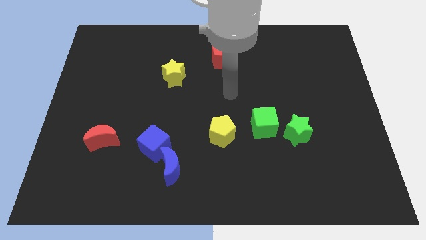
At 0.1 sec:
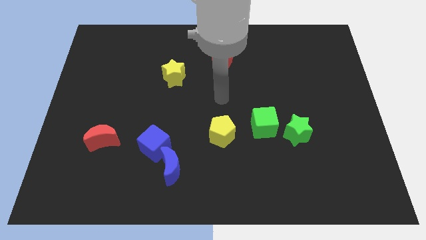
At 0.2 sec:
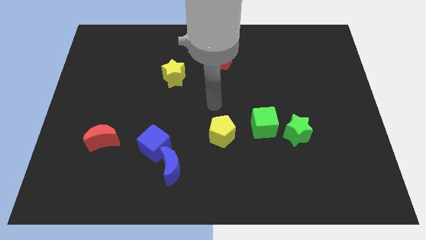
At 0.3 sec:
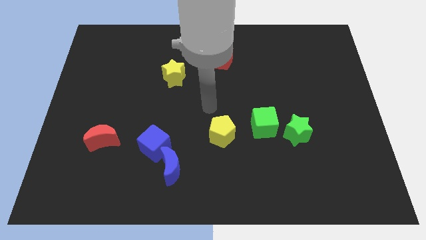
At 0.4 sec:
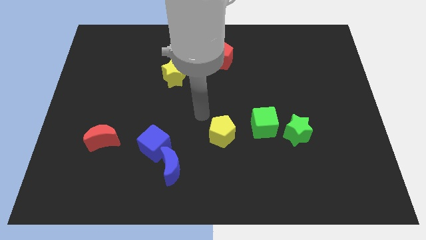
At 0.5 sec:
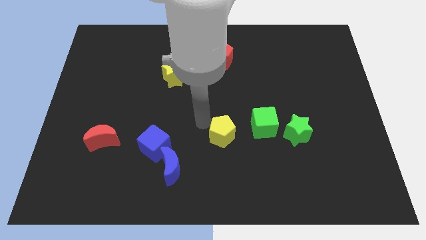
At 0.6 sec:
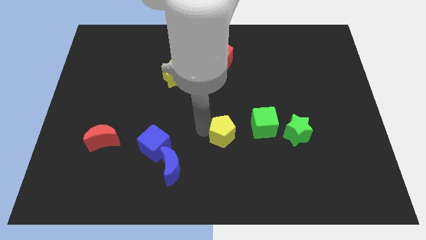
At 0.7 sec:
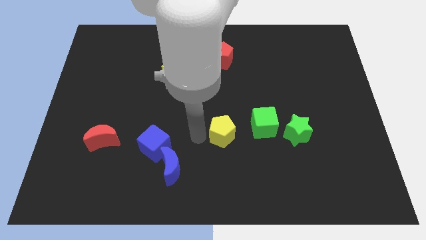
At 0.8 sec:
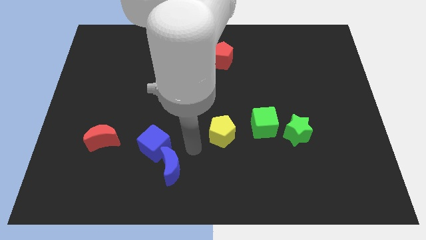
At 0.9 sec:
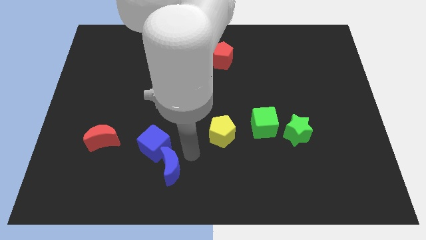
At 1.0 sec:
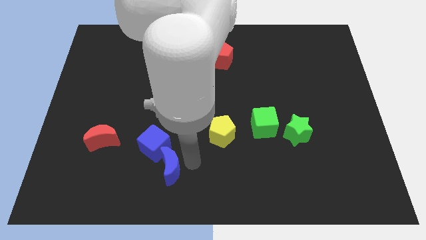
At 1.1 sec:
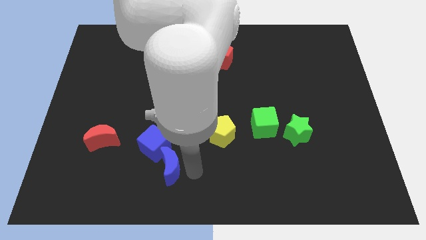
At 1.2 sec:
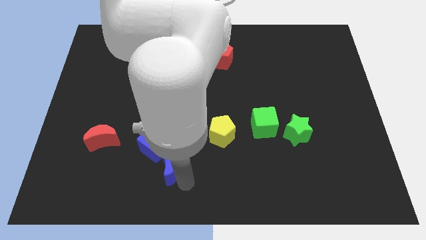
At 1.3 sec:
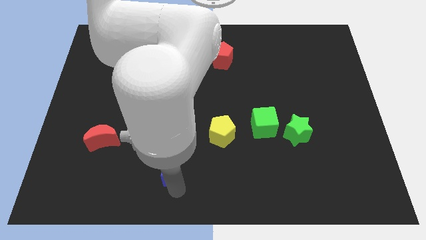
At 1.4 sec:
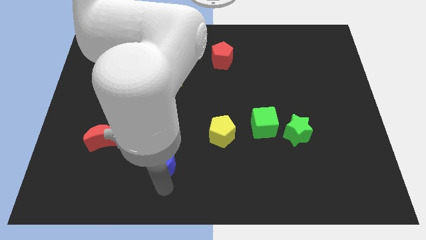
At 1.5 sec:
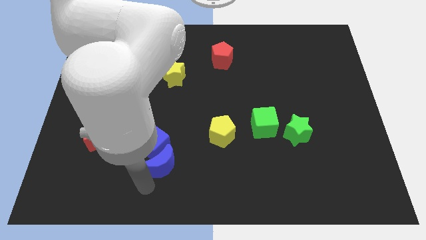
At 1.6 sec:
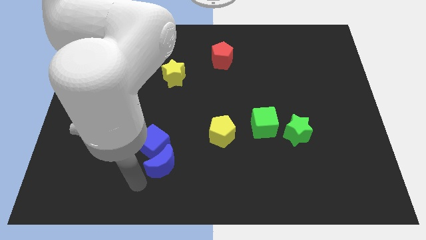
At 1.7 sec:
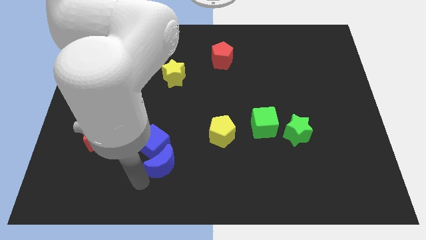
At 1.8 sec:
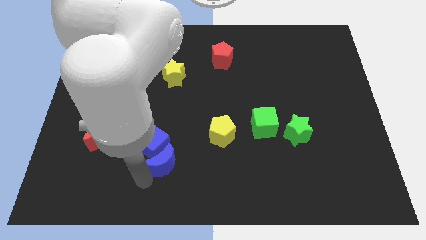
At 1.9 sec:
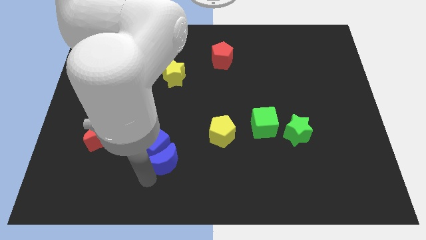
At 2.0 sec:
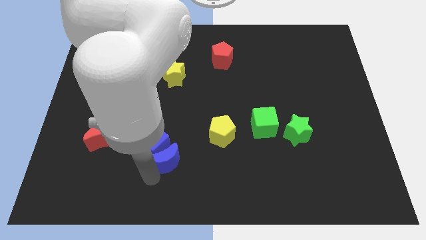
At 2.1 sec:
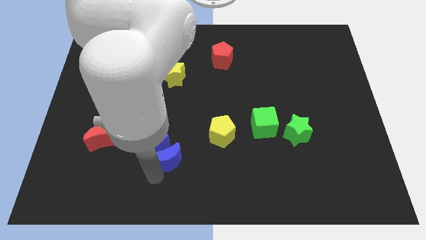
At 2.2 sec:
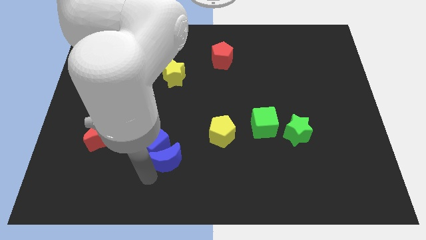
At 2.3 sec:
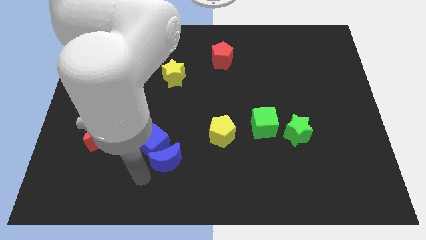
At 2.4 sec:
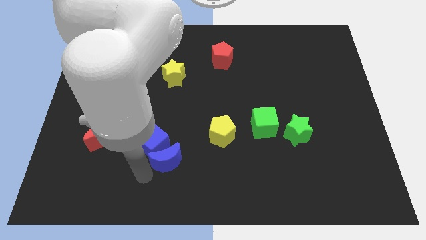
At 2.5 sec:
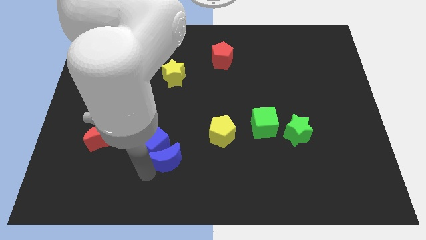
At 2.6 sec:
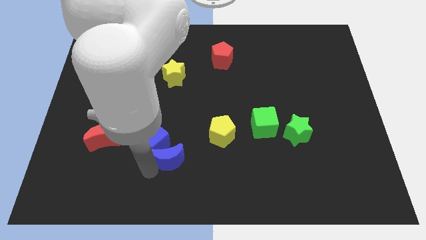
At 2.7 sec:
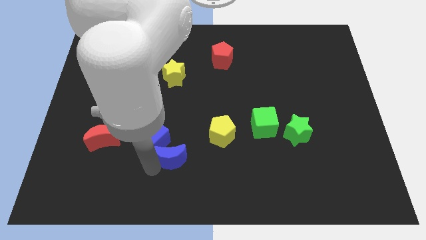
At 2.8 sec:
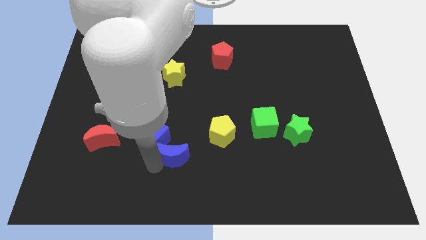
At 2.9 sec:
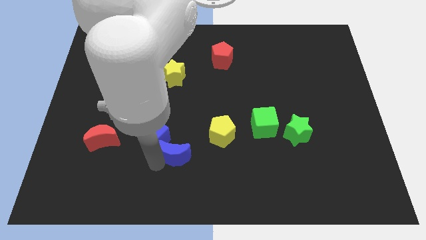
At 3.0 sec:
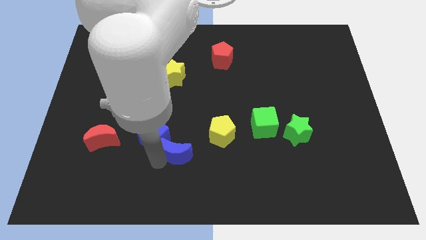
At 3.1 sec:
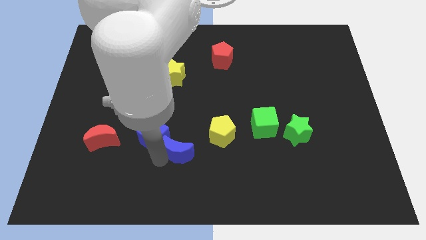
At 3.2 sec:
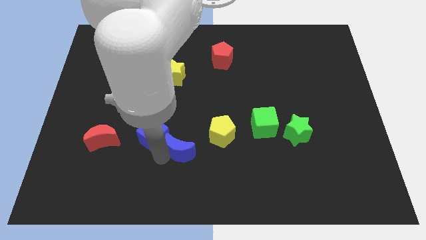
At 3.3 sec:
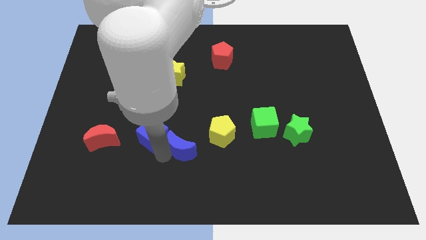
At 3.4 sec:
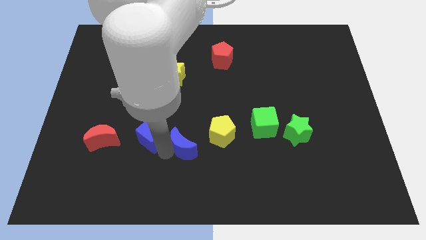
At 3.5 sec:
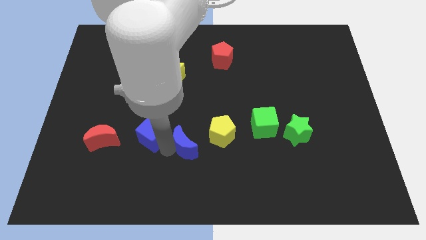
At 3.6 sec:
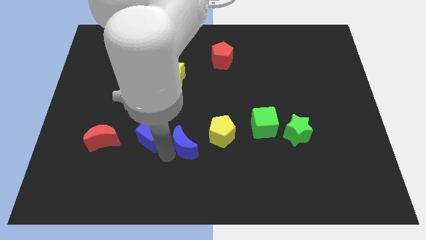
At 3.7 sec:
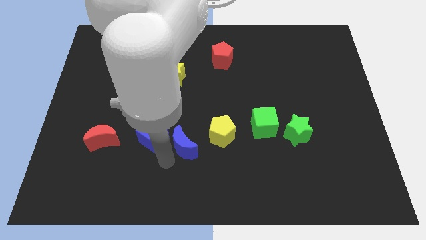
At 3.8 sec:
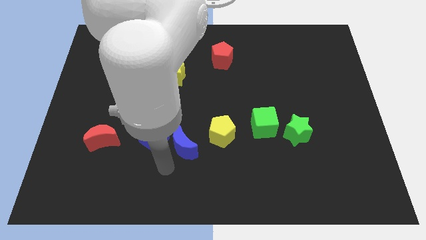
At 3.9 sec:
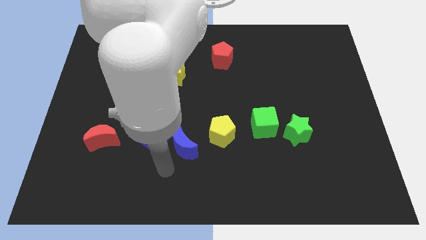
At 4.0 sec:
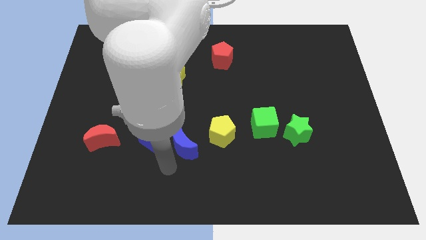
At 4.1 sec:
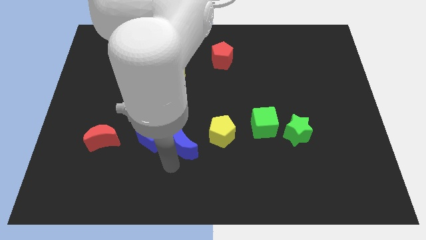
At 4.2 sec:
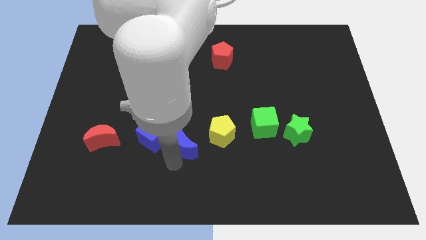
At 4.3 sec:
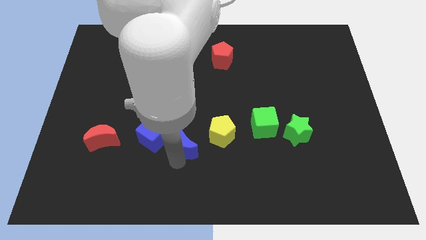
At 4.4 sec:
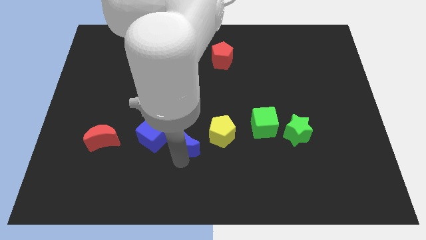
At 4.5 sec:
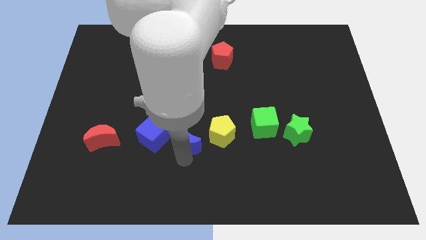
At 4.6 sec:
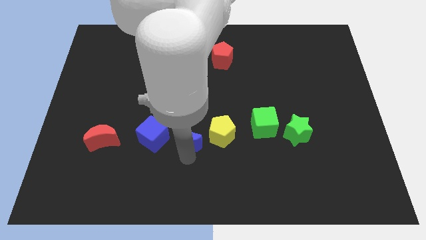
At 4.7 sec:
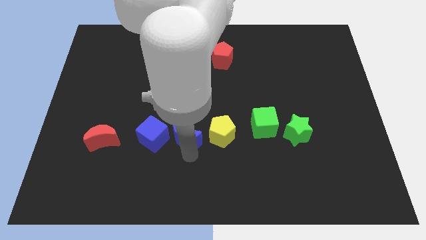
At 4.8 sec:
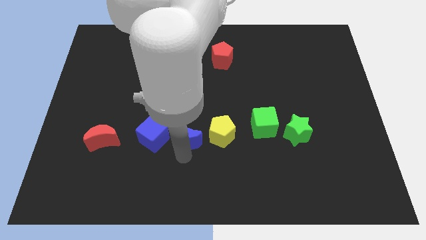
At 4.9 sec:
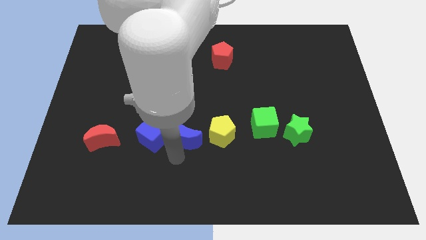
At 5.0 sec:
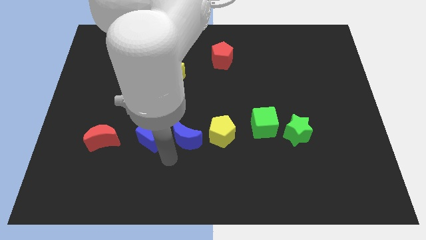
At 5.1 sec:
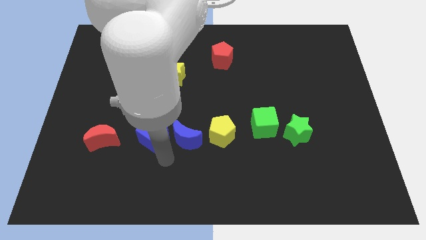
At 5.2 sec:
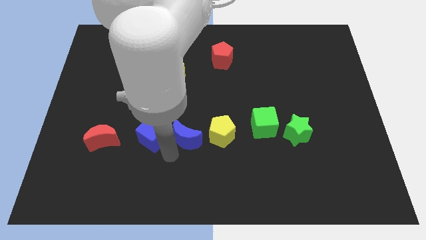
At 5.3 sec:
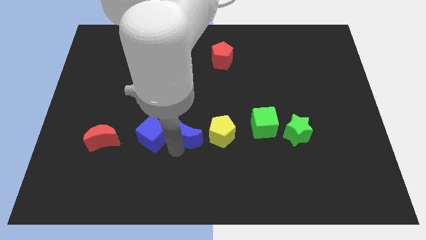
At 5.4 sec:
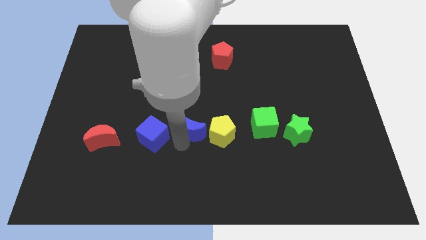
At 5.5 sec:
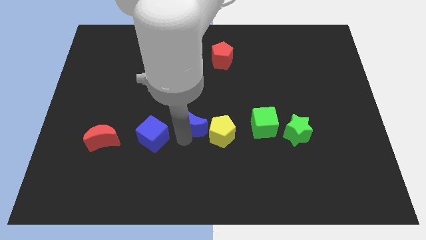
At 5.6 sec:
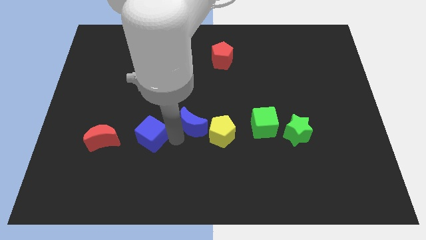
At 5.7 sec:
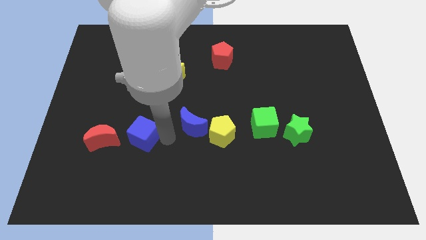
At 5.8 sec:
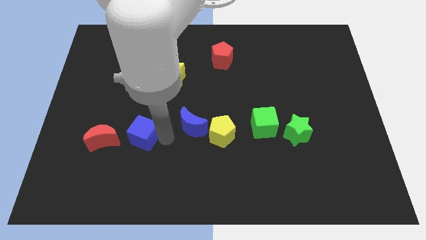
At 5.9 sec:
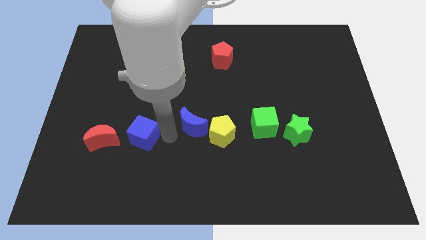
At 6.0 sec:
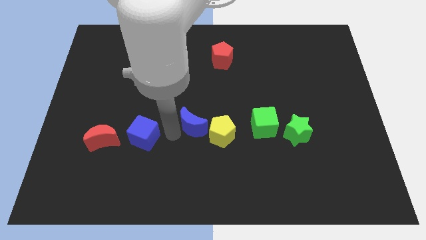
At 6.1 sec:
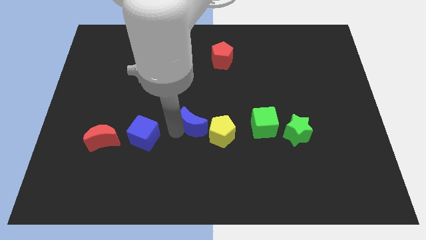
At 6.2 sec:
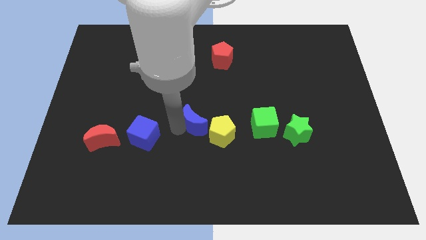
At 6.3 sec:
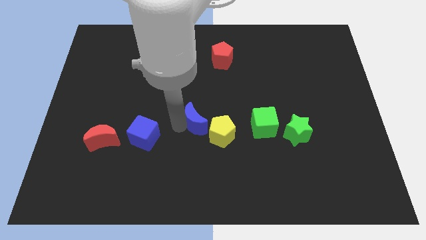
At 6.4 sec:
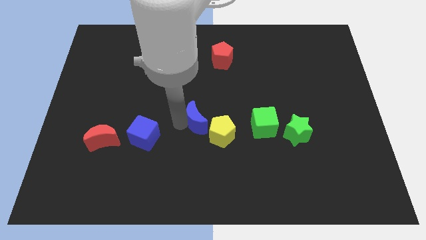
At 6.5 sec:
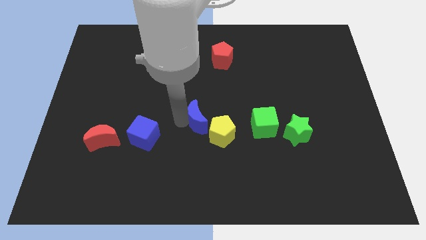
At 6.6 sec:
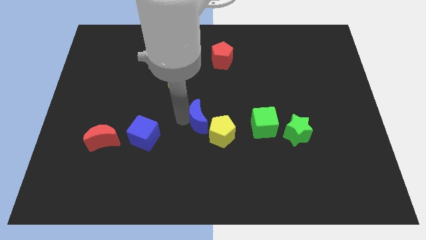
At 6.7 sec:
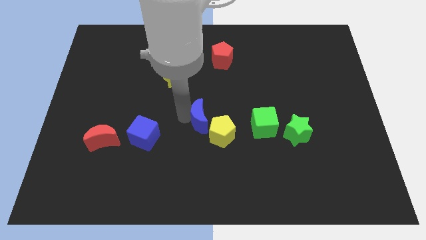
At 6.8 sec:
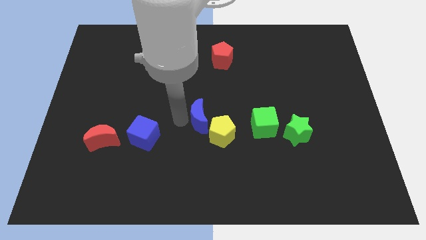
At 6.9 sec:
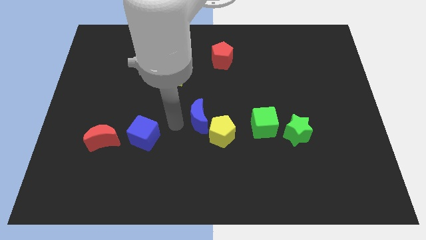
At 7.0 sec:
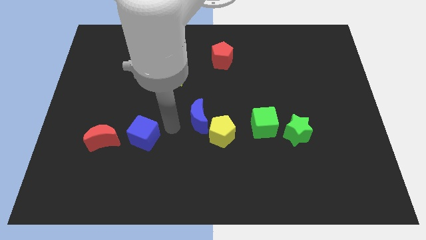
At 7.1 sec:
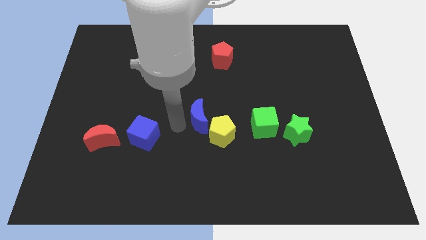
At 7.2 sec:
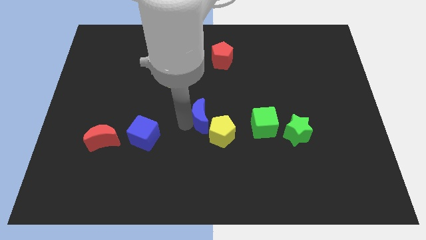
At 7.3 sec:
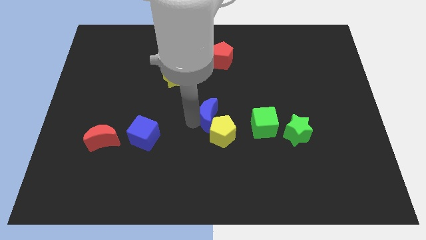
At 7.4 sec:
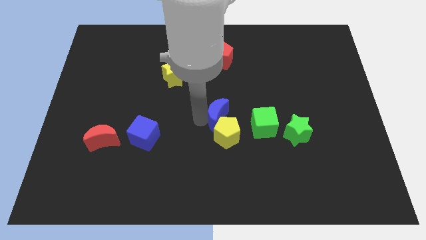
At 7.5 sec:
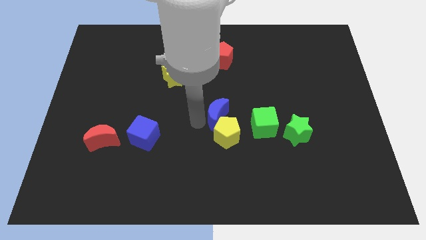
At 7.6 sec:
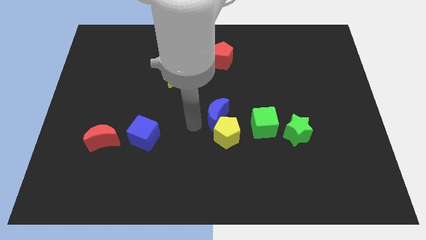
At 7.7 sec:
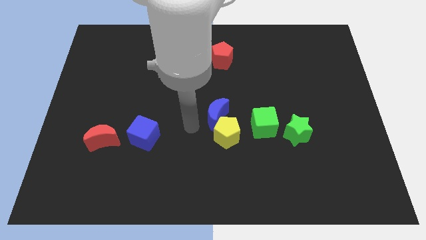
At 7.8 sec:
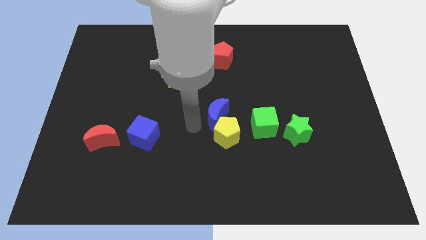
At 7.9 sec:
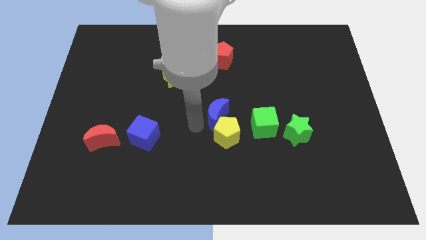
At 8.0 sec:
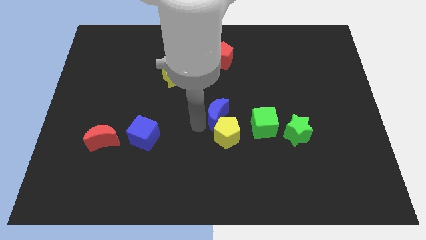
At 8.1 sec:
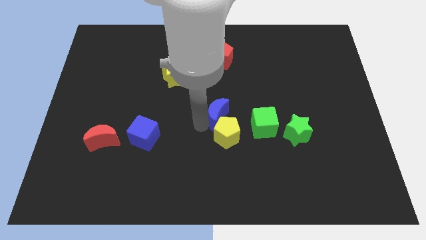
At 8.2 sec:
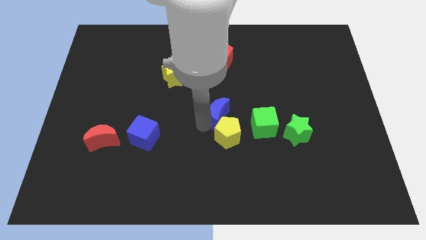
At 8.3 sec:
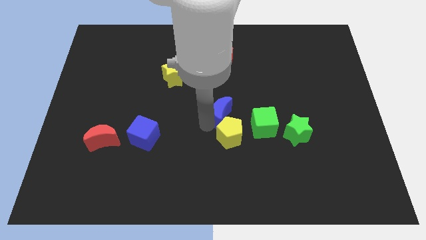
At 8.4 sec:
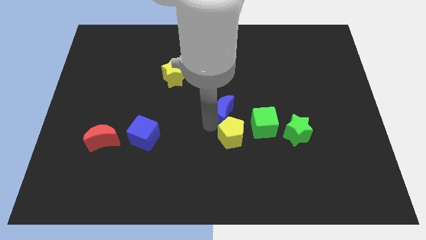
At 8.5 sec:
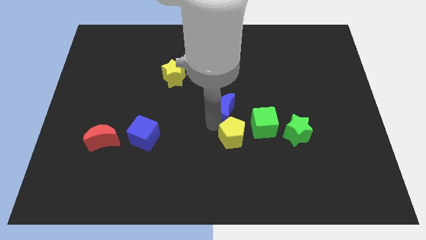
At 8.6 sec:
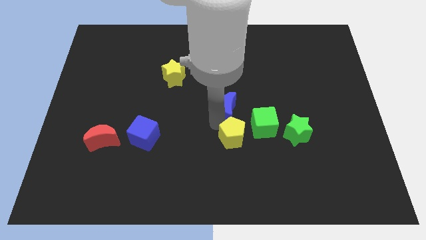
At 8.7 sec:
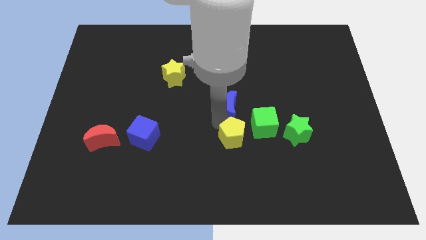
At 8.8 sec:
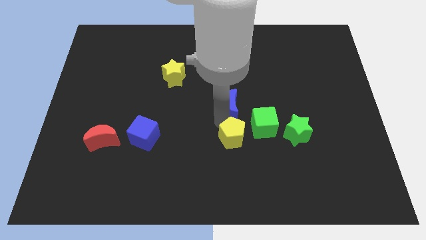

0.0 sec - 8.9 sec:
slide the blue moon upwards and to the right
